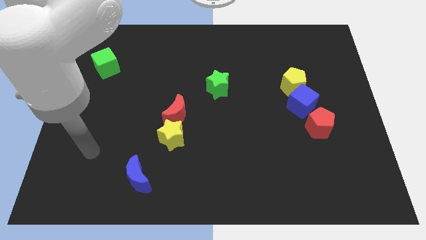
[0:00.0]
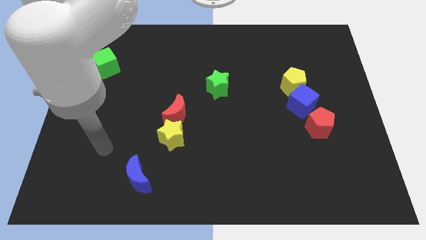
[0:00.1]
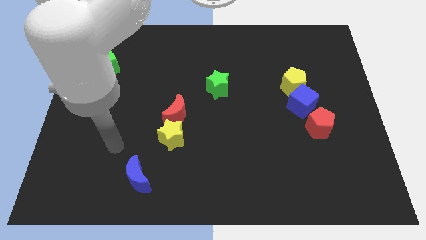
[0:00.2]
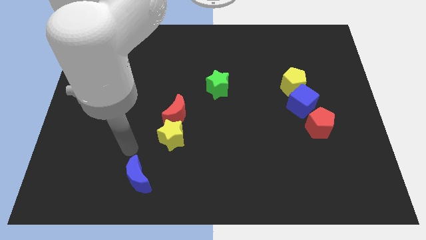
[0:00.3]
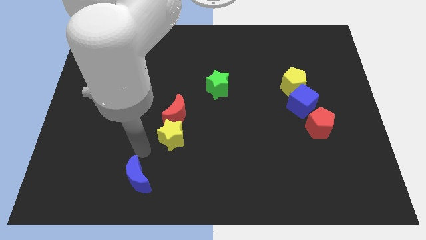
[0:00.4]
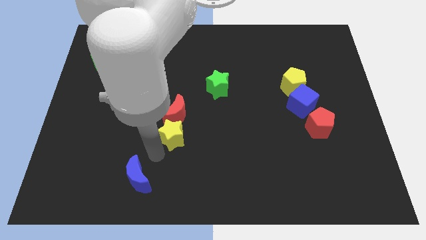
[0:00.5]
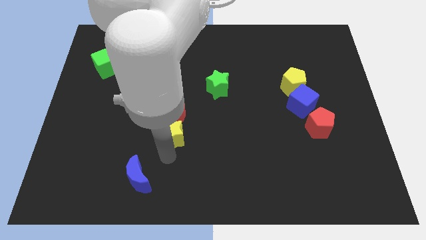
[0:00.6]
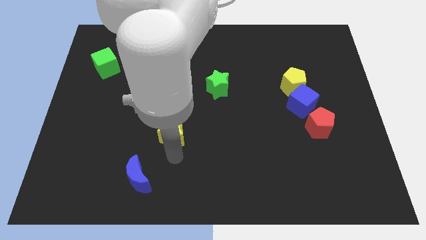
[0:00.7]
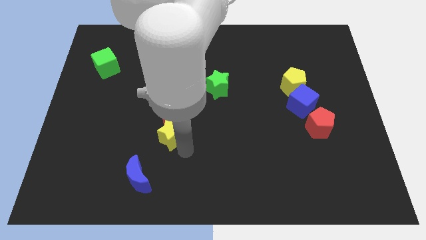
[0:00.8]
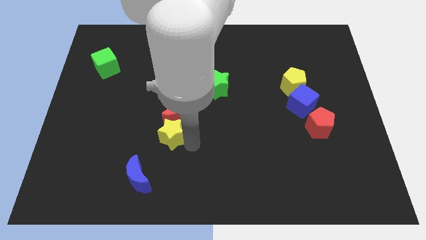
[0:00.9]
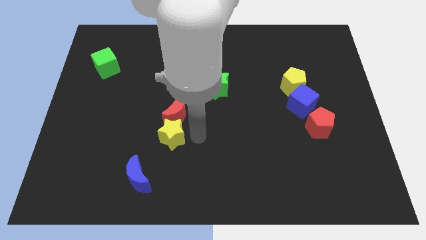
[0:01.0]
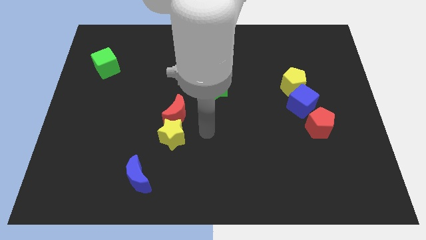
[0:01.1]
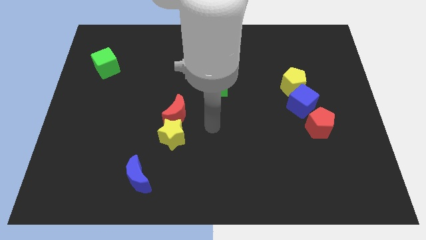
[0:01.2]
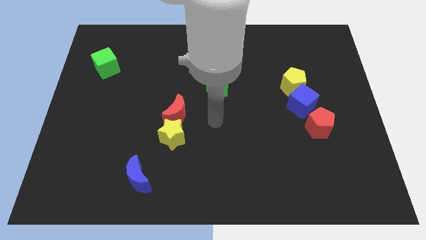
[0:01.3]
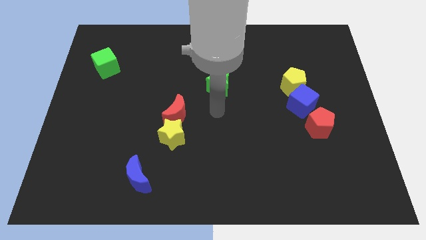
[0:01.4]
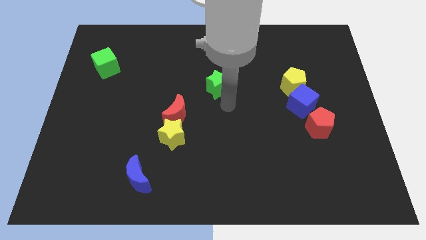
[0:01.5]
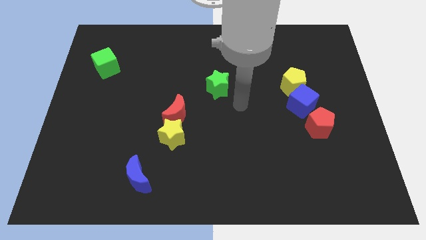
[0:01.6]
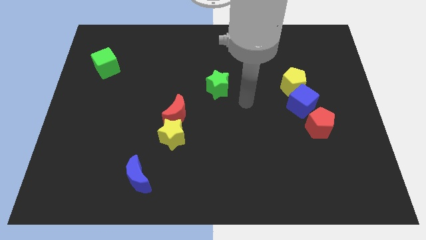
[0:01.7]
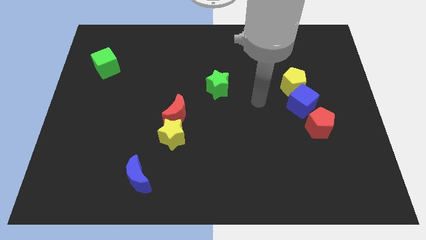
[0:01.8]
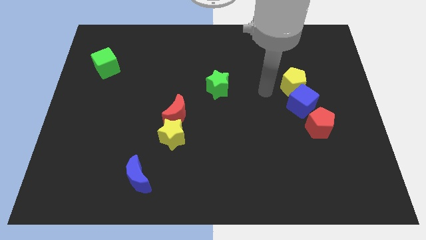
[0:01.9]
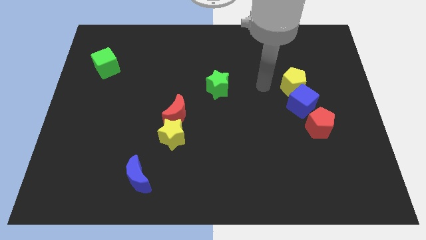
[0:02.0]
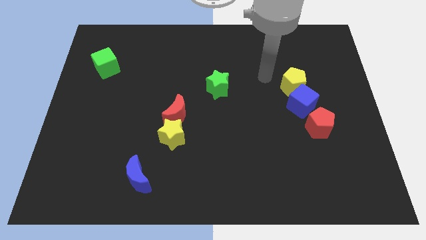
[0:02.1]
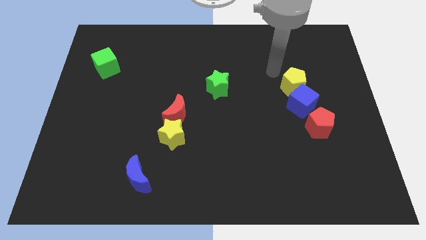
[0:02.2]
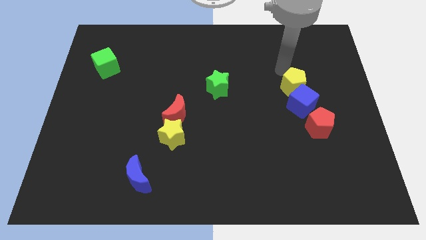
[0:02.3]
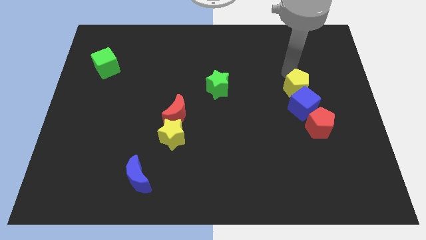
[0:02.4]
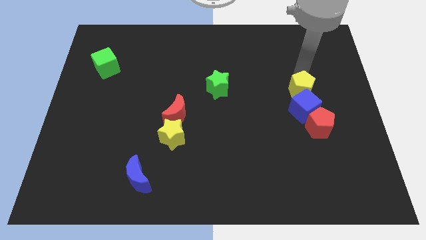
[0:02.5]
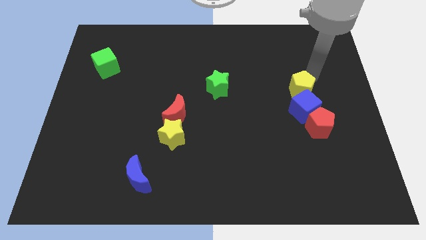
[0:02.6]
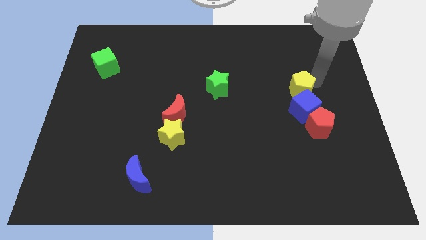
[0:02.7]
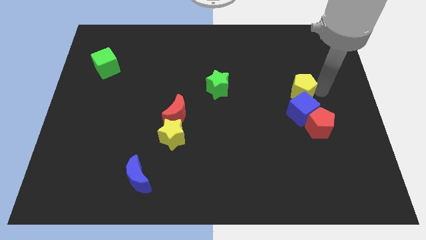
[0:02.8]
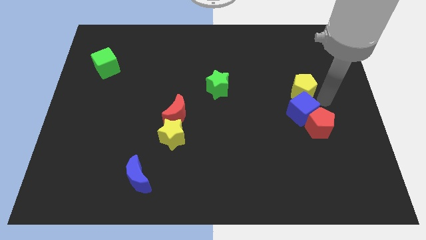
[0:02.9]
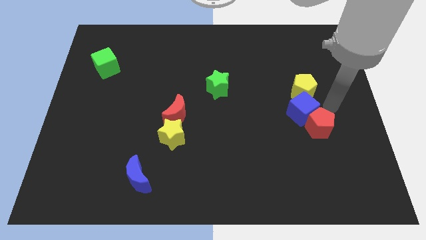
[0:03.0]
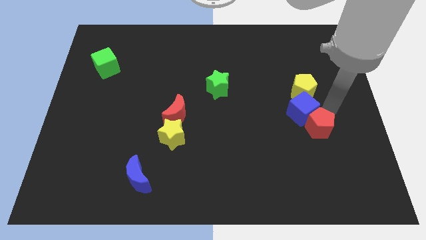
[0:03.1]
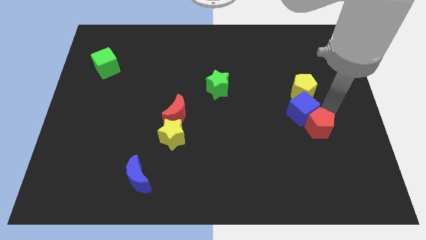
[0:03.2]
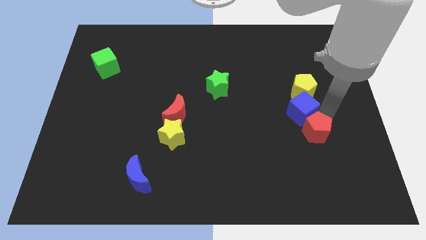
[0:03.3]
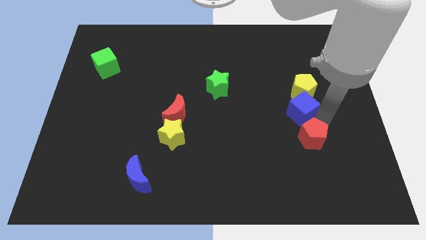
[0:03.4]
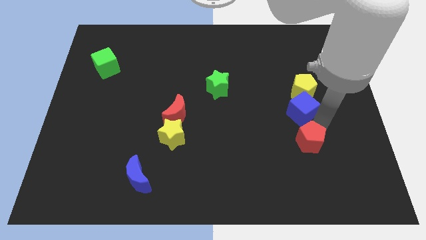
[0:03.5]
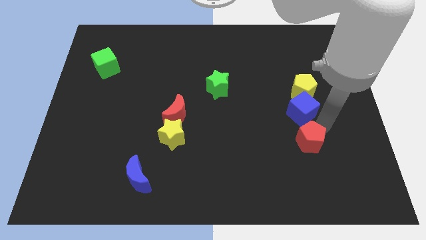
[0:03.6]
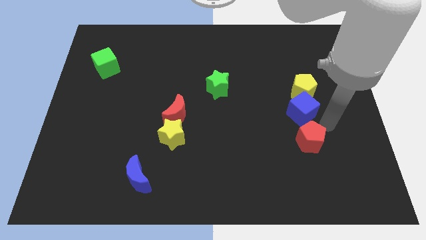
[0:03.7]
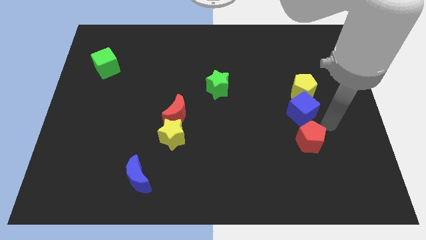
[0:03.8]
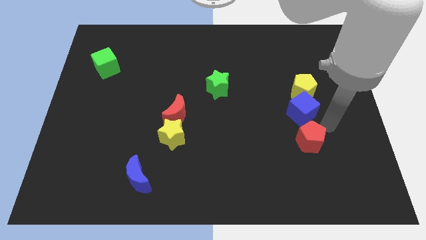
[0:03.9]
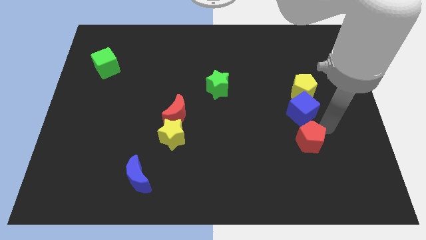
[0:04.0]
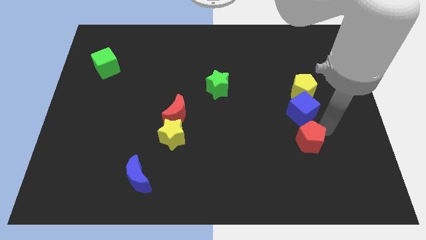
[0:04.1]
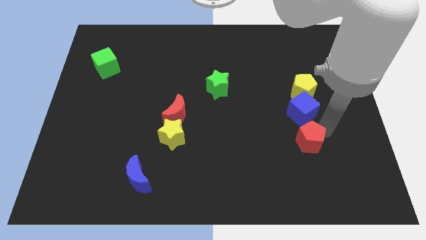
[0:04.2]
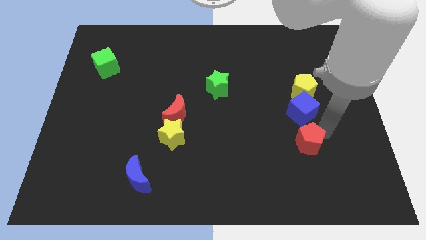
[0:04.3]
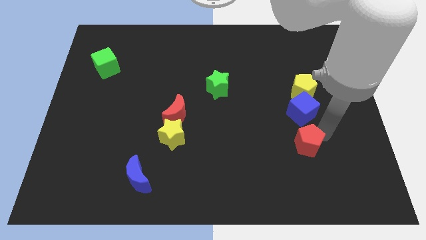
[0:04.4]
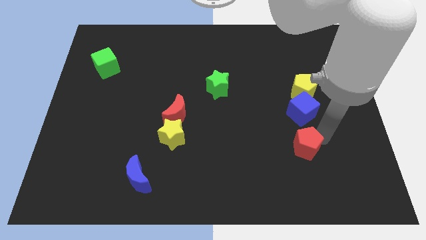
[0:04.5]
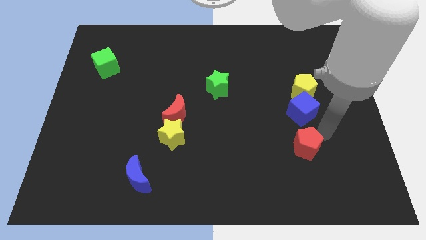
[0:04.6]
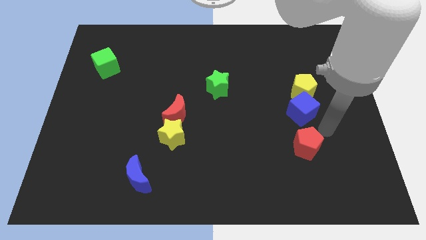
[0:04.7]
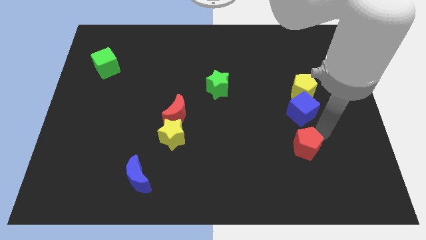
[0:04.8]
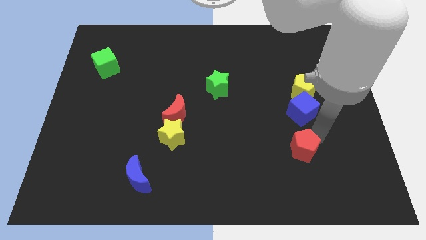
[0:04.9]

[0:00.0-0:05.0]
slightly slide the red pentagon down and left diagonally

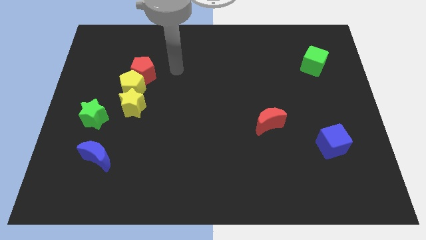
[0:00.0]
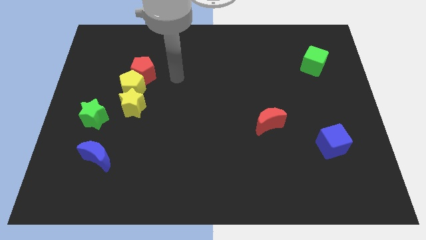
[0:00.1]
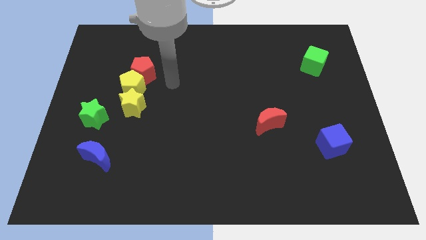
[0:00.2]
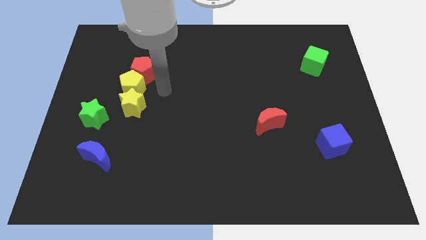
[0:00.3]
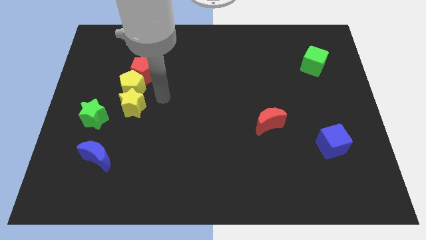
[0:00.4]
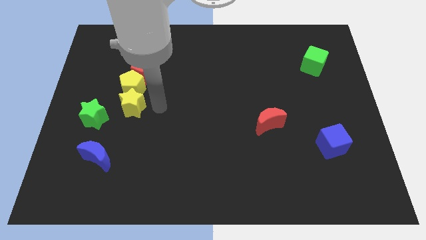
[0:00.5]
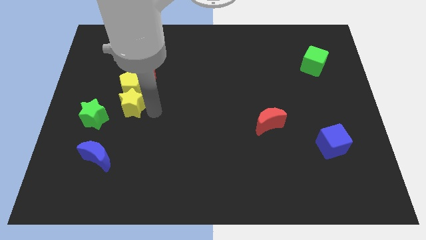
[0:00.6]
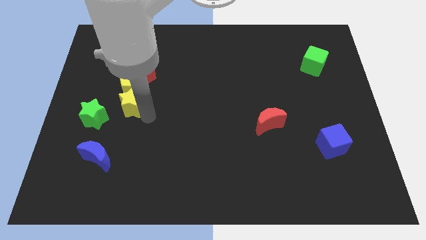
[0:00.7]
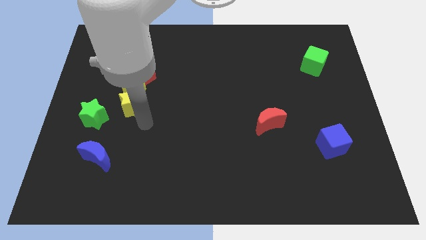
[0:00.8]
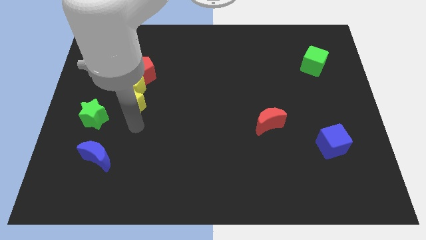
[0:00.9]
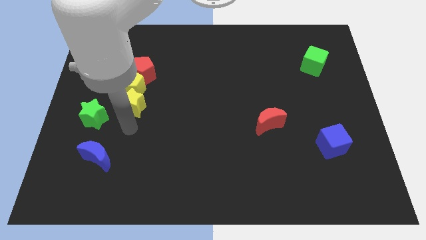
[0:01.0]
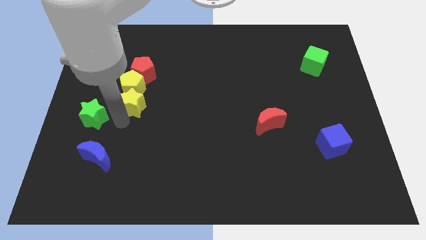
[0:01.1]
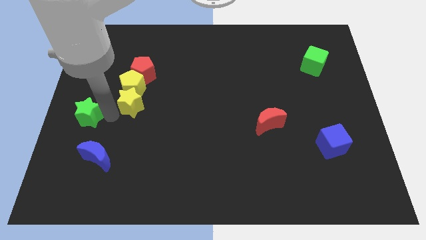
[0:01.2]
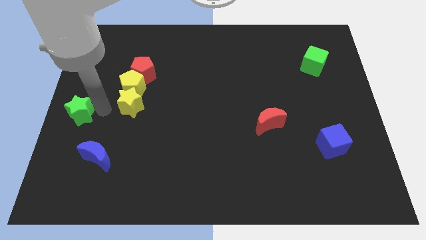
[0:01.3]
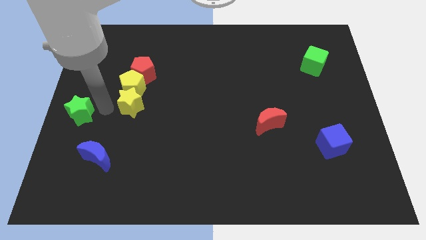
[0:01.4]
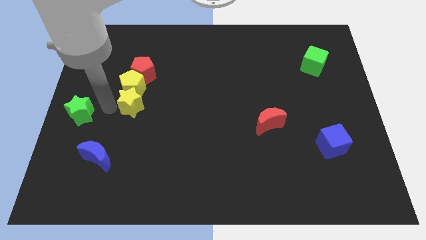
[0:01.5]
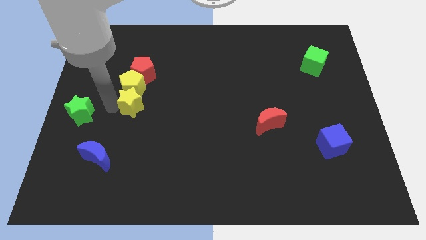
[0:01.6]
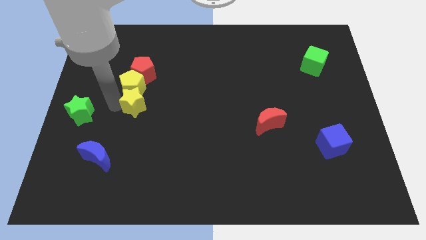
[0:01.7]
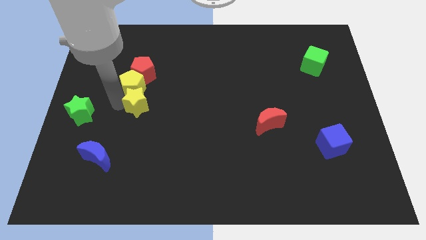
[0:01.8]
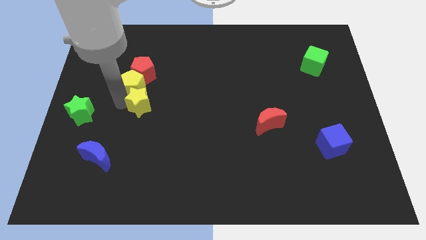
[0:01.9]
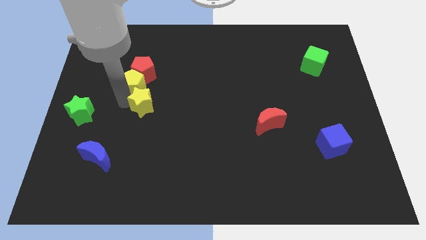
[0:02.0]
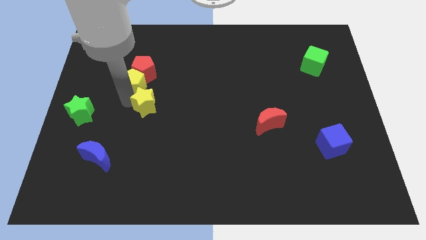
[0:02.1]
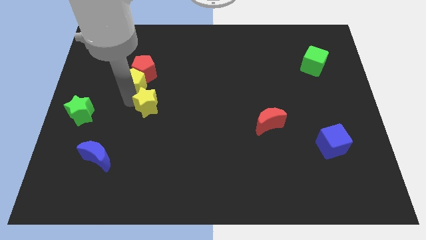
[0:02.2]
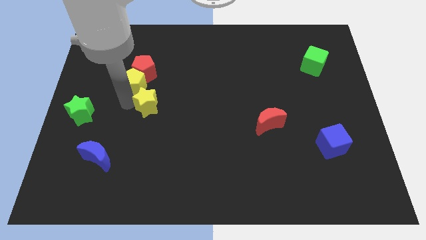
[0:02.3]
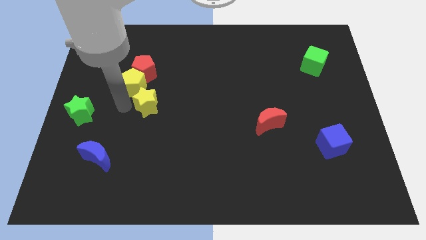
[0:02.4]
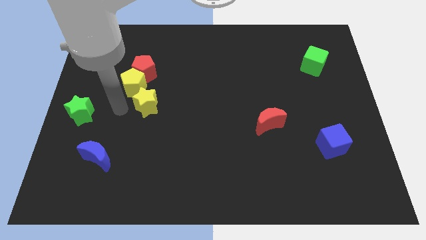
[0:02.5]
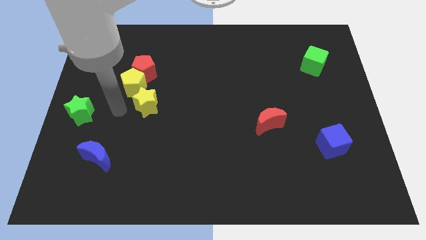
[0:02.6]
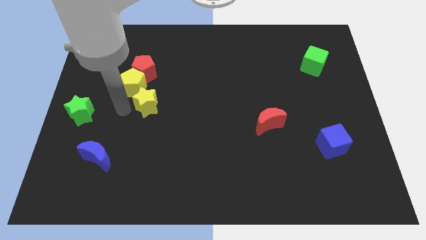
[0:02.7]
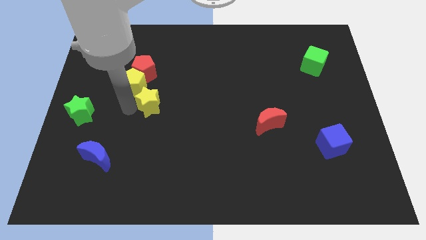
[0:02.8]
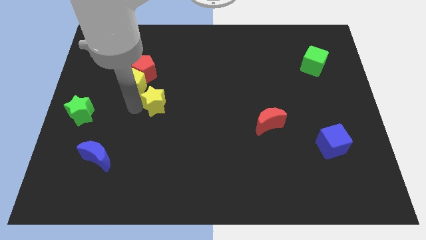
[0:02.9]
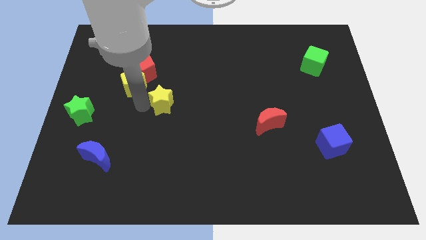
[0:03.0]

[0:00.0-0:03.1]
slide the yellow star somewhat right

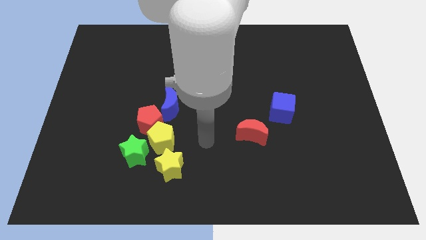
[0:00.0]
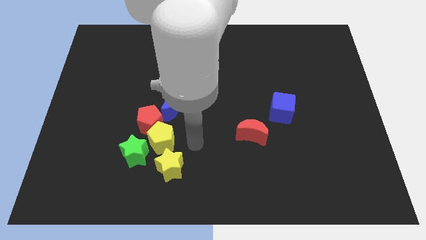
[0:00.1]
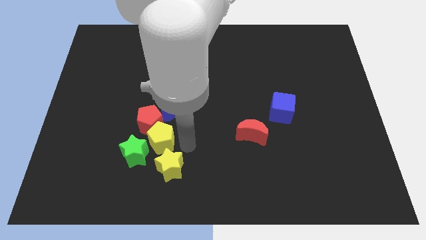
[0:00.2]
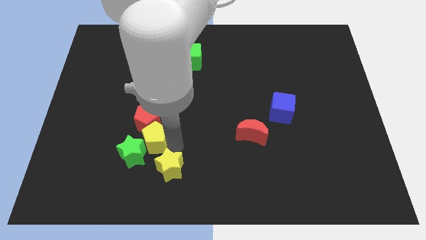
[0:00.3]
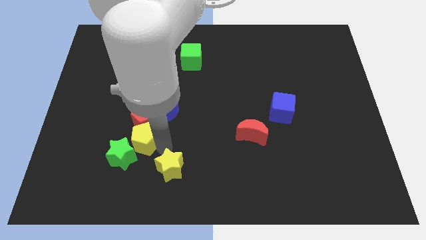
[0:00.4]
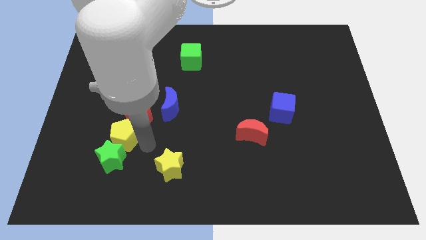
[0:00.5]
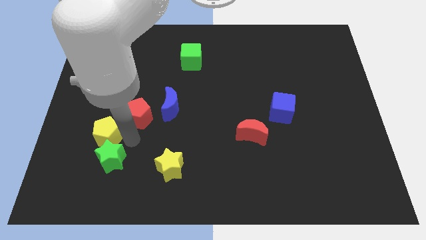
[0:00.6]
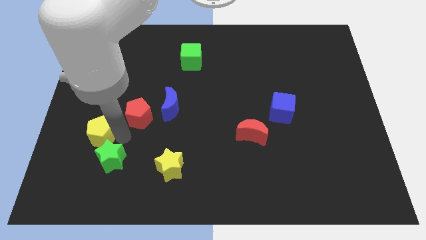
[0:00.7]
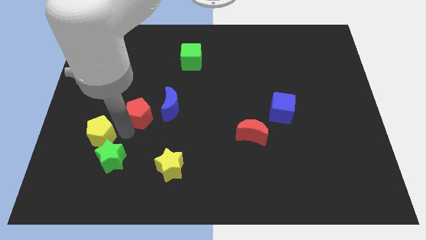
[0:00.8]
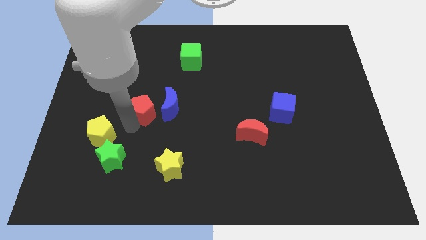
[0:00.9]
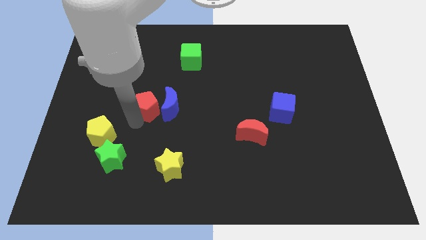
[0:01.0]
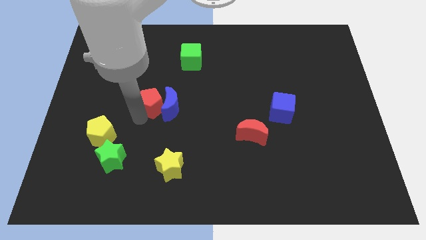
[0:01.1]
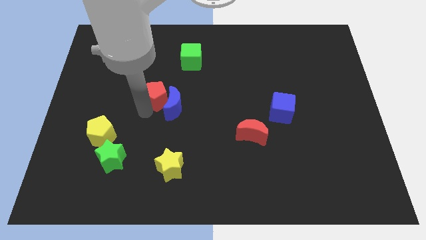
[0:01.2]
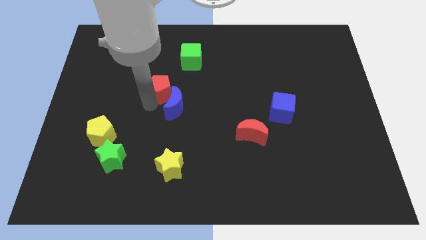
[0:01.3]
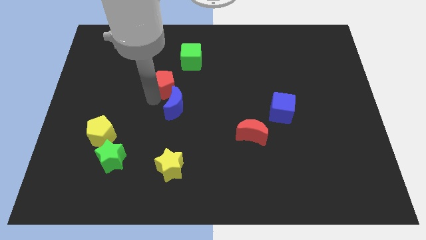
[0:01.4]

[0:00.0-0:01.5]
push the red pentagon slightly up and to the right diagonally
